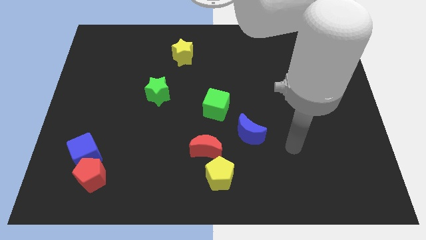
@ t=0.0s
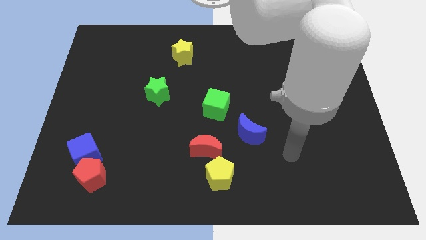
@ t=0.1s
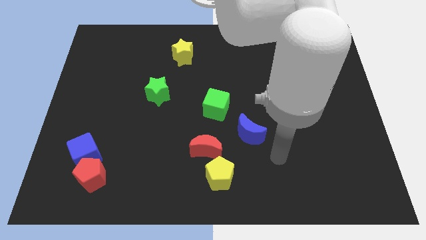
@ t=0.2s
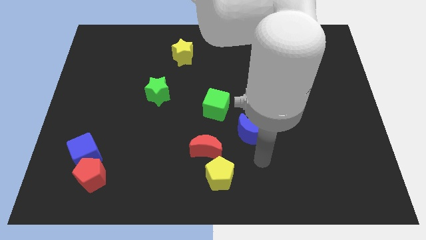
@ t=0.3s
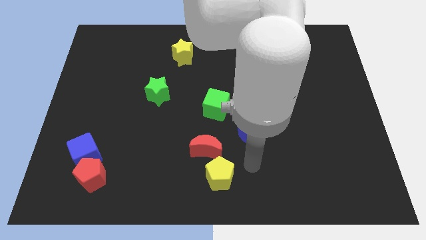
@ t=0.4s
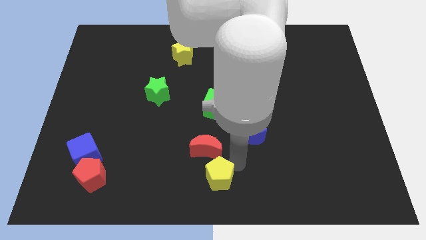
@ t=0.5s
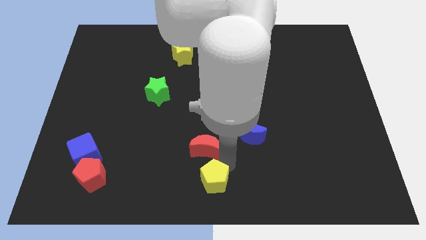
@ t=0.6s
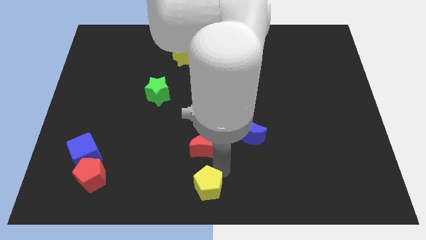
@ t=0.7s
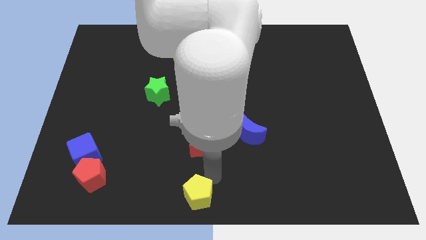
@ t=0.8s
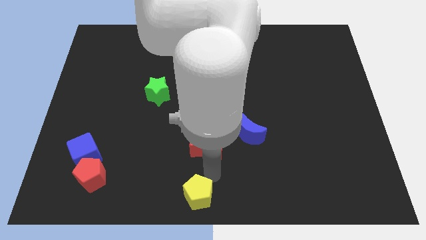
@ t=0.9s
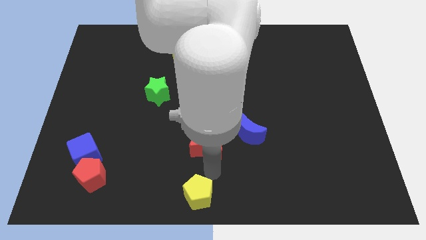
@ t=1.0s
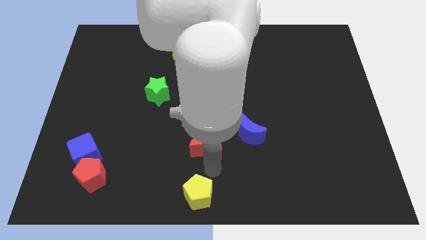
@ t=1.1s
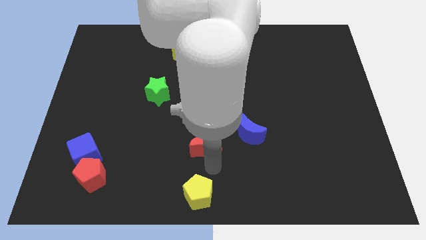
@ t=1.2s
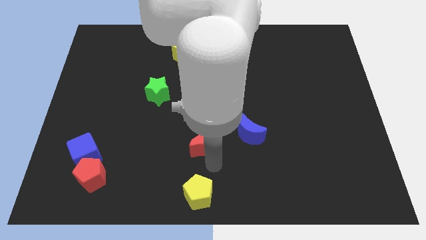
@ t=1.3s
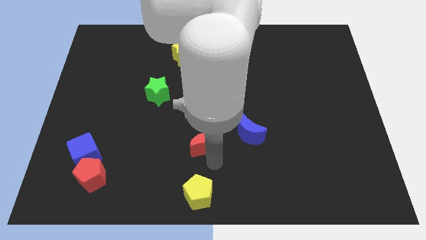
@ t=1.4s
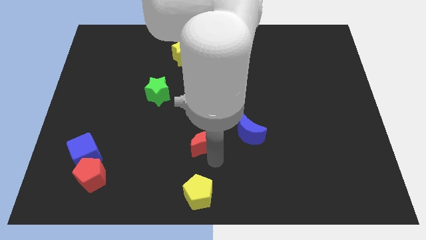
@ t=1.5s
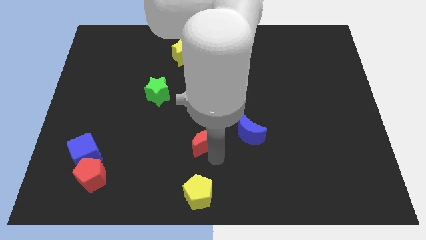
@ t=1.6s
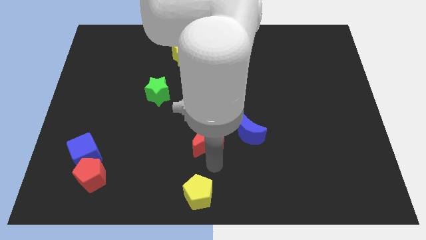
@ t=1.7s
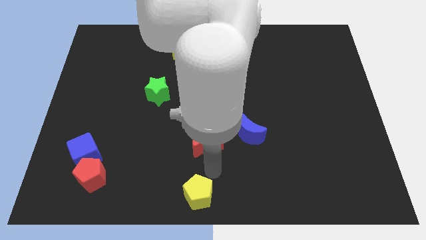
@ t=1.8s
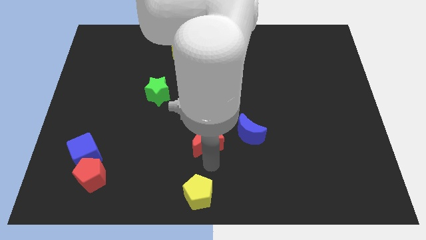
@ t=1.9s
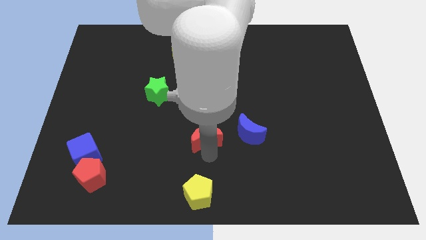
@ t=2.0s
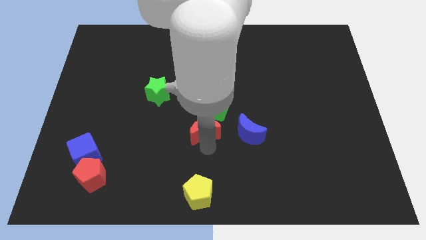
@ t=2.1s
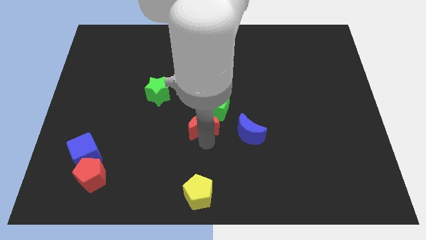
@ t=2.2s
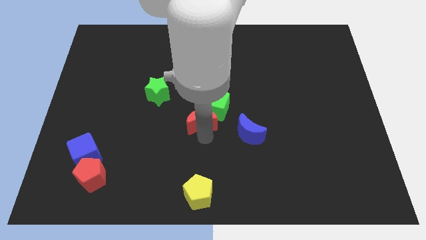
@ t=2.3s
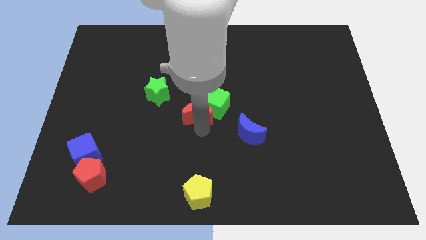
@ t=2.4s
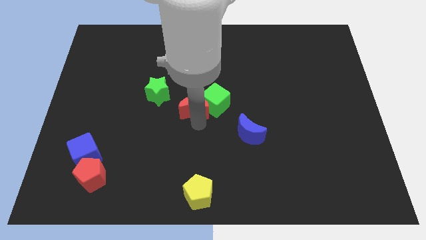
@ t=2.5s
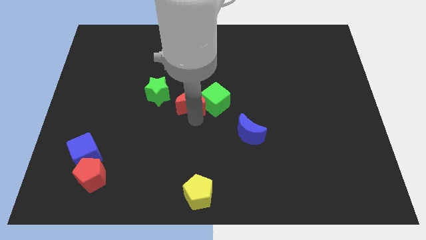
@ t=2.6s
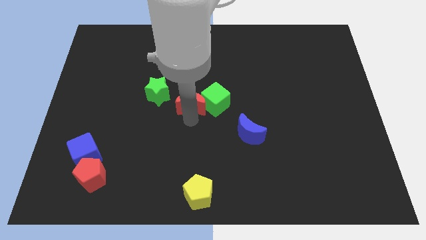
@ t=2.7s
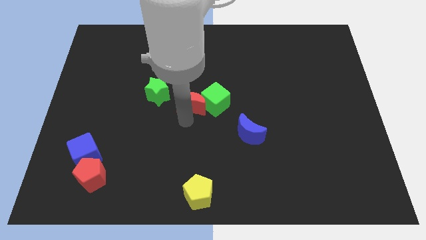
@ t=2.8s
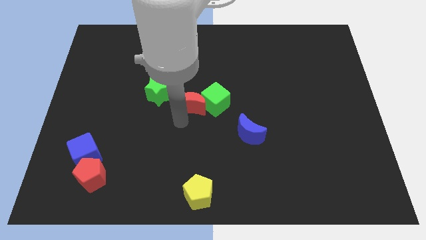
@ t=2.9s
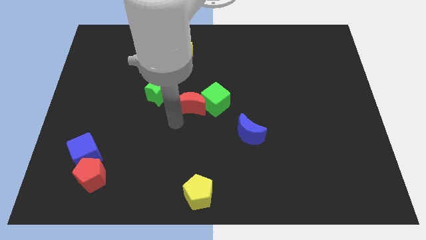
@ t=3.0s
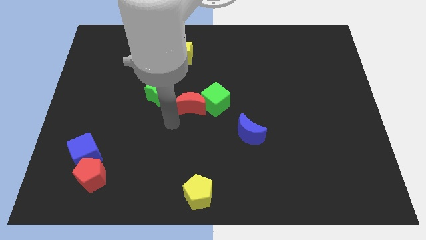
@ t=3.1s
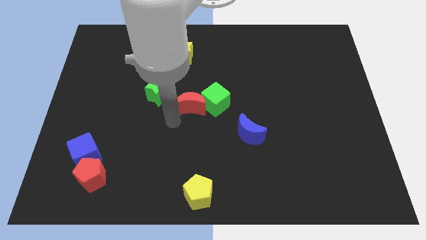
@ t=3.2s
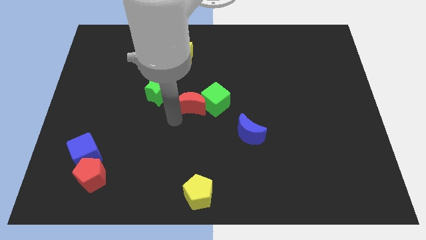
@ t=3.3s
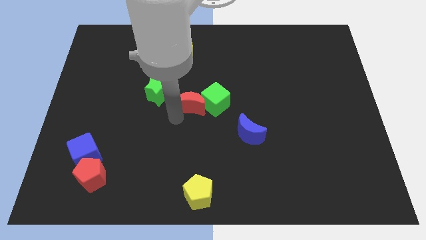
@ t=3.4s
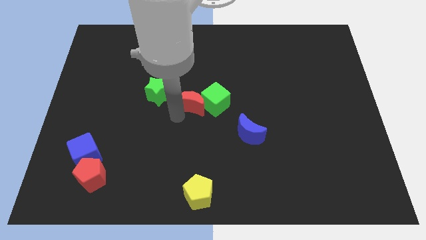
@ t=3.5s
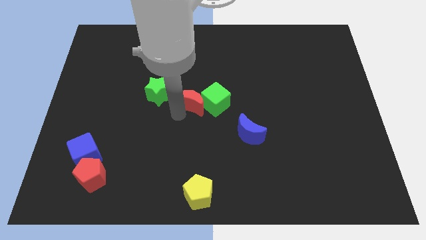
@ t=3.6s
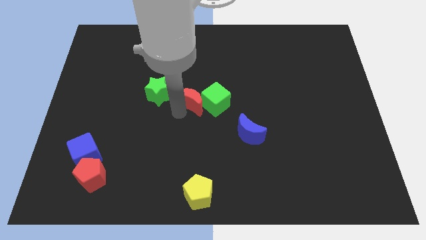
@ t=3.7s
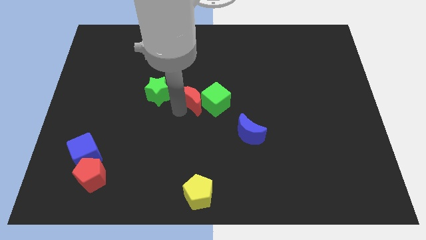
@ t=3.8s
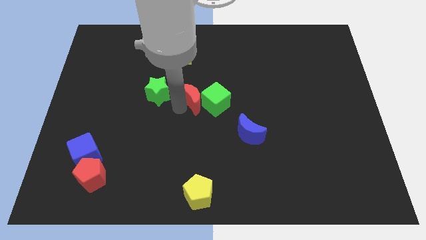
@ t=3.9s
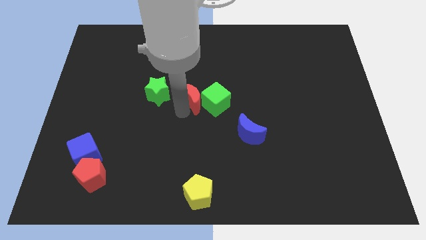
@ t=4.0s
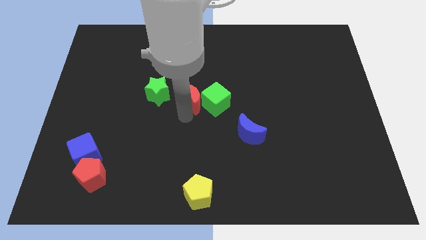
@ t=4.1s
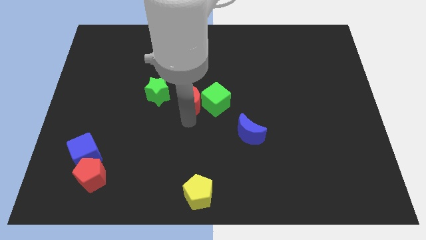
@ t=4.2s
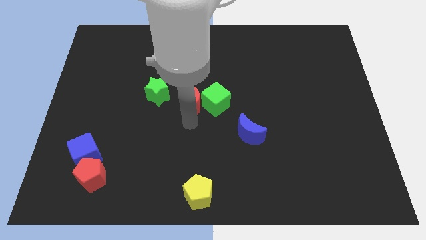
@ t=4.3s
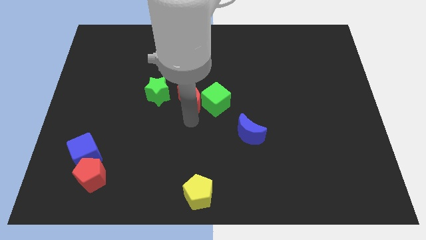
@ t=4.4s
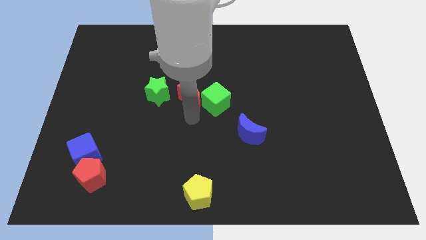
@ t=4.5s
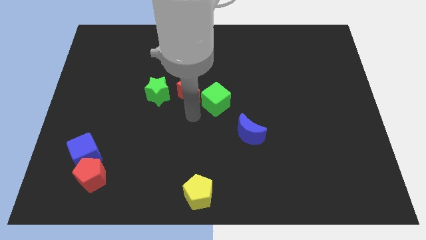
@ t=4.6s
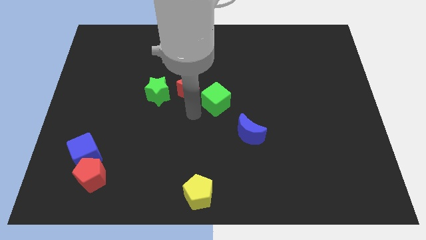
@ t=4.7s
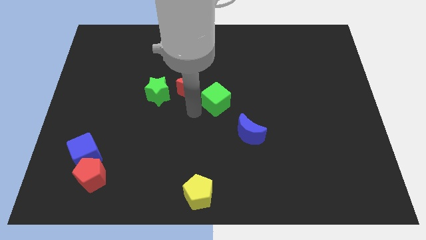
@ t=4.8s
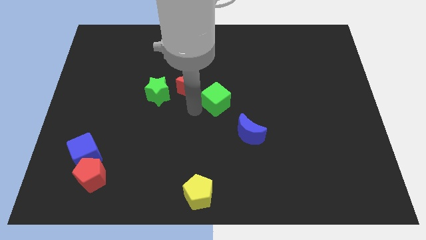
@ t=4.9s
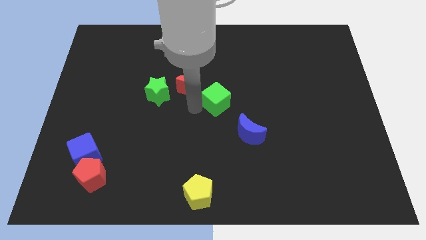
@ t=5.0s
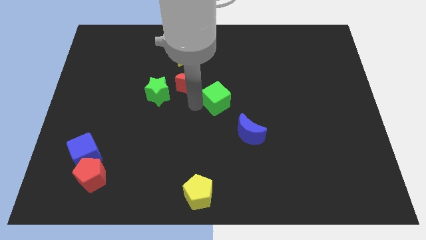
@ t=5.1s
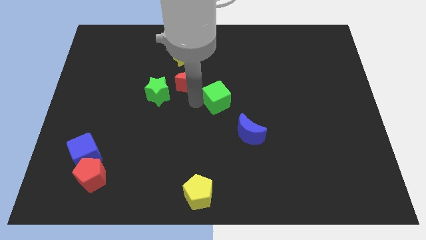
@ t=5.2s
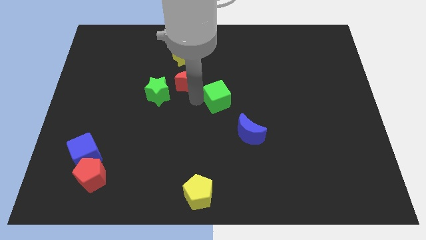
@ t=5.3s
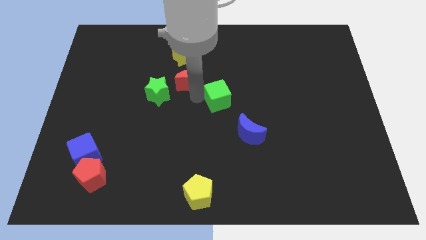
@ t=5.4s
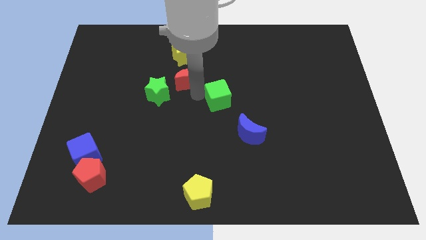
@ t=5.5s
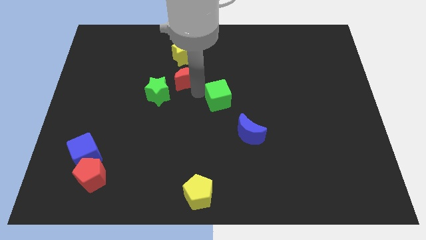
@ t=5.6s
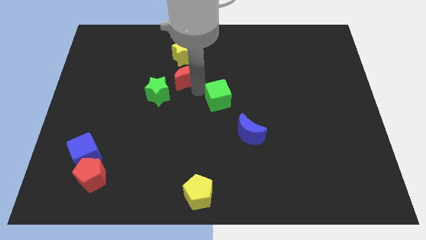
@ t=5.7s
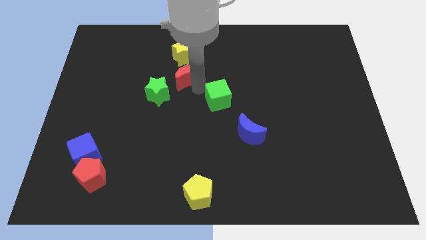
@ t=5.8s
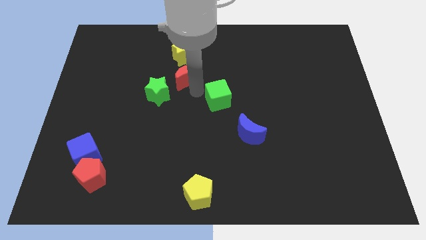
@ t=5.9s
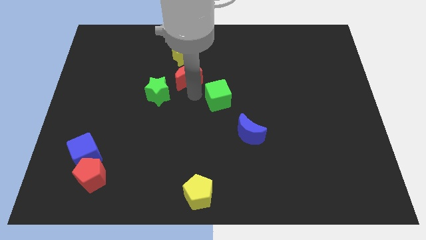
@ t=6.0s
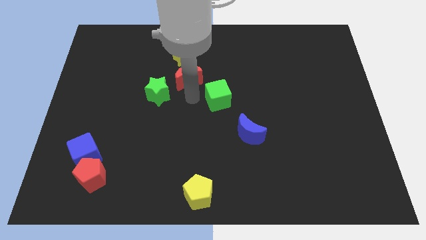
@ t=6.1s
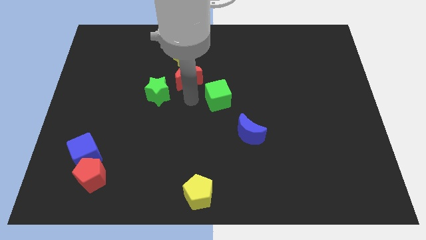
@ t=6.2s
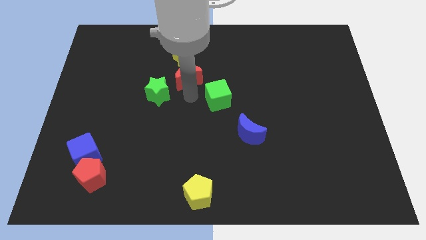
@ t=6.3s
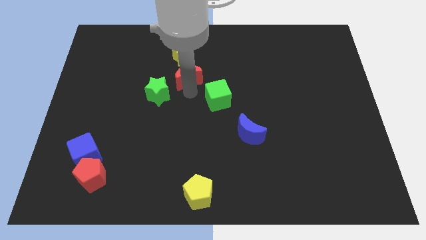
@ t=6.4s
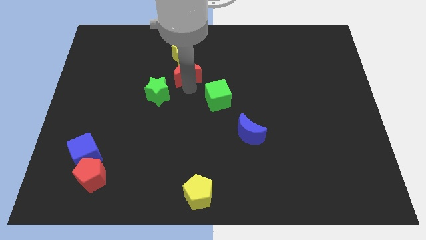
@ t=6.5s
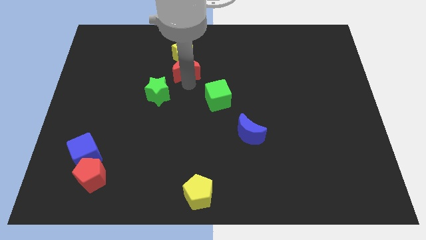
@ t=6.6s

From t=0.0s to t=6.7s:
slide the red moon close to the yellow star

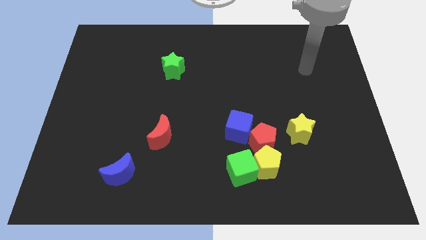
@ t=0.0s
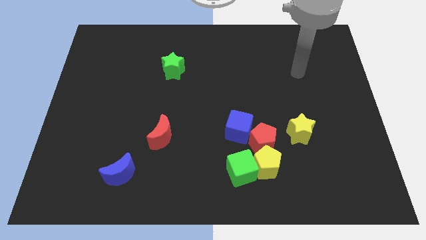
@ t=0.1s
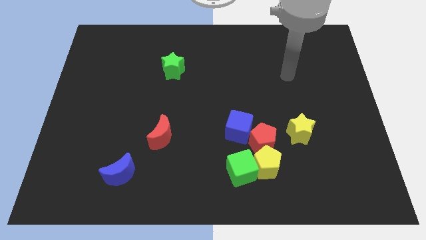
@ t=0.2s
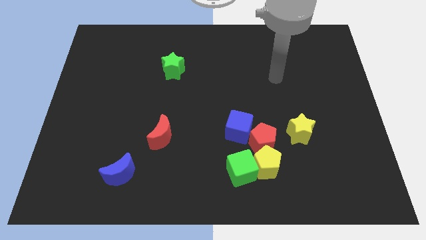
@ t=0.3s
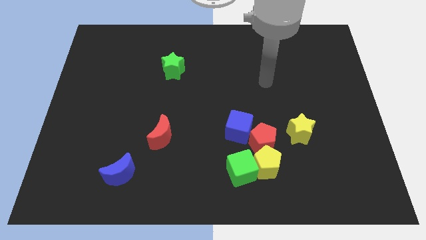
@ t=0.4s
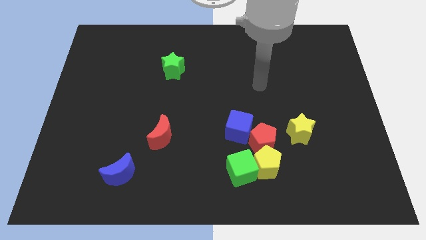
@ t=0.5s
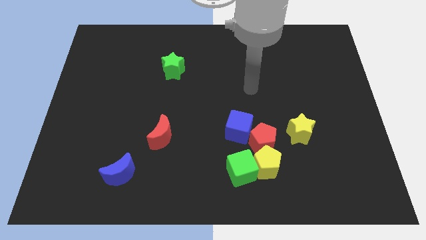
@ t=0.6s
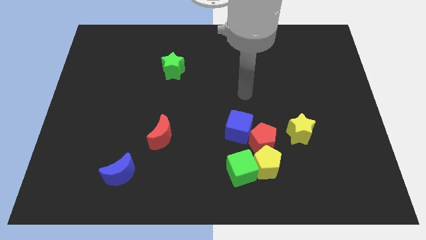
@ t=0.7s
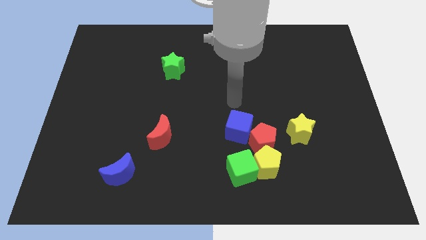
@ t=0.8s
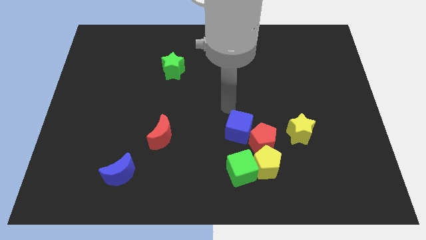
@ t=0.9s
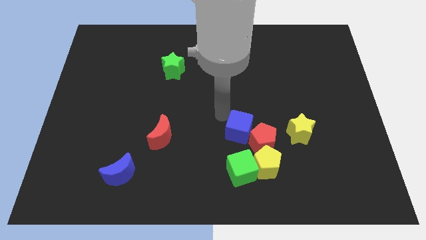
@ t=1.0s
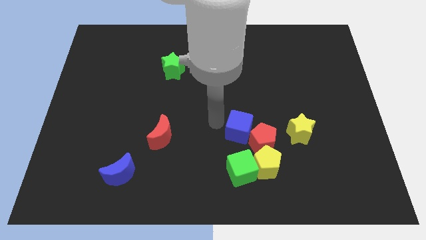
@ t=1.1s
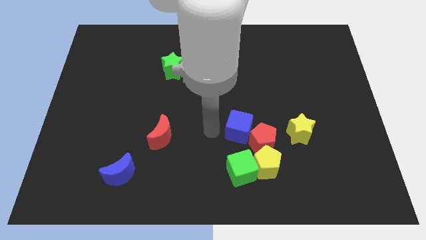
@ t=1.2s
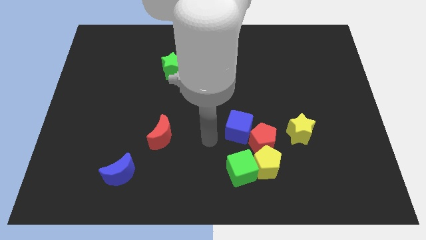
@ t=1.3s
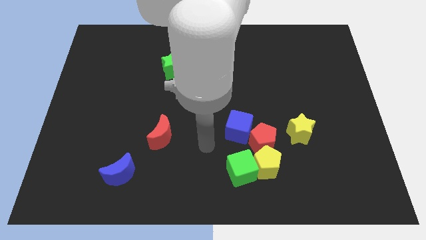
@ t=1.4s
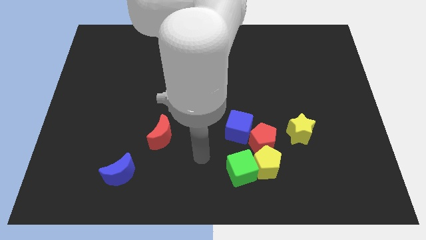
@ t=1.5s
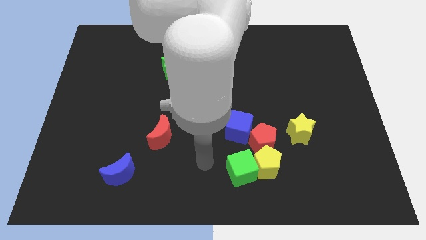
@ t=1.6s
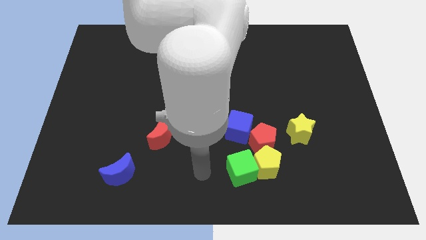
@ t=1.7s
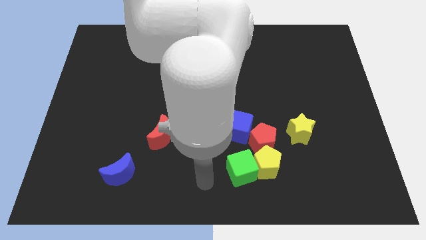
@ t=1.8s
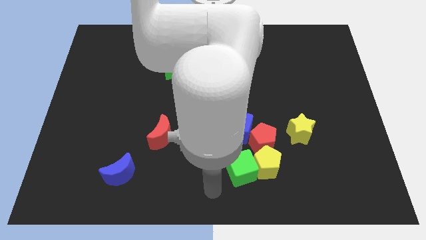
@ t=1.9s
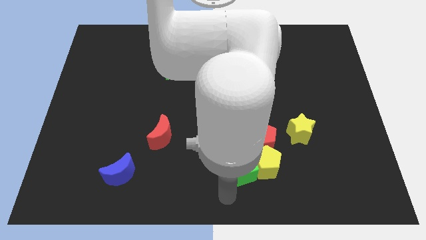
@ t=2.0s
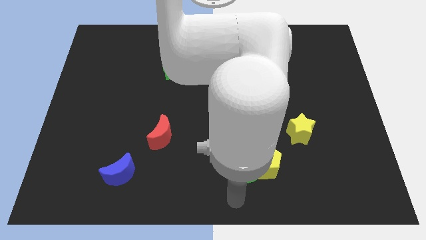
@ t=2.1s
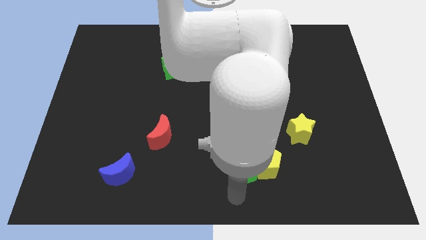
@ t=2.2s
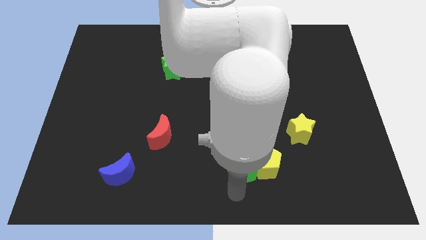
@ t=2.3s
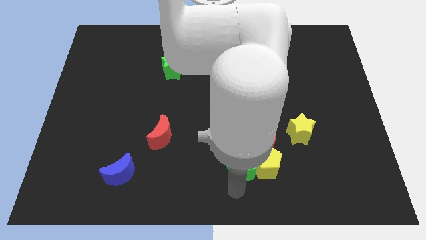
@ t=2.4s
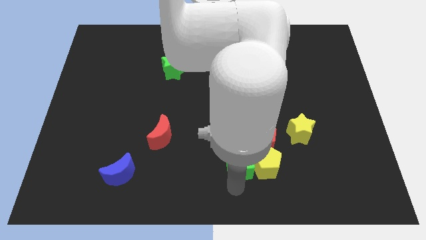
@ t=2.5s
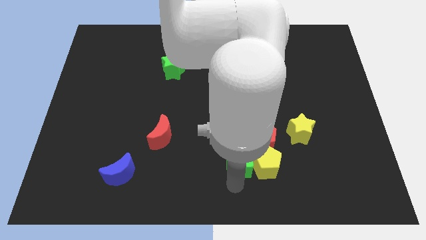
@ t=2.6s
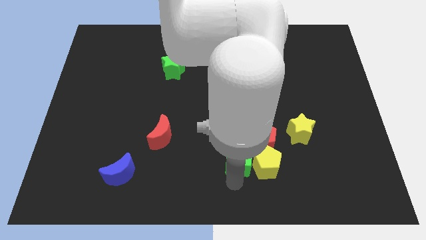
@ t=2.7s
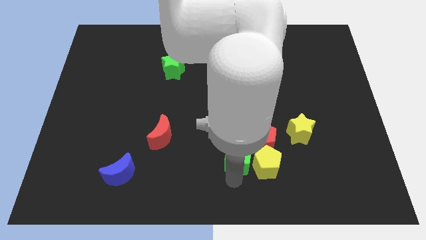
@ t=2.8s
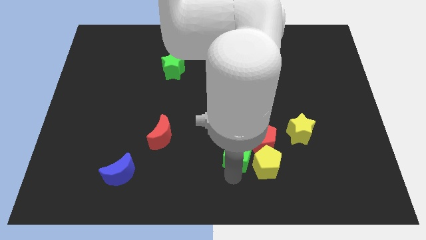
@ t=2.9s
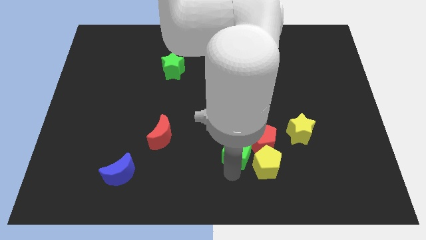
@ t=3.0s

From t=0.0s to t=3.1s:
move the green cube next to the red pentagon
